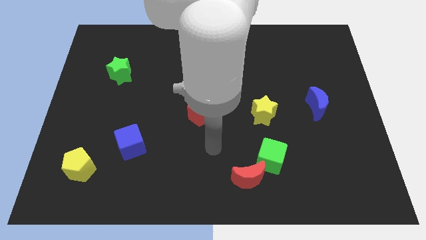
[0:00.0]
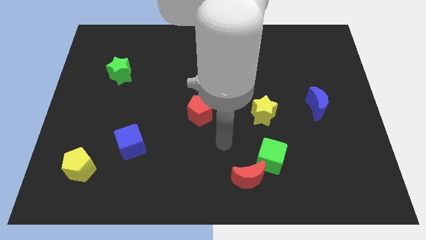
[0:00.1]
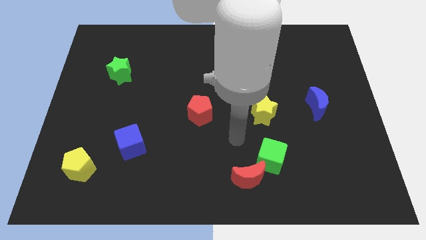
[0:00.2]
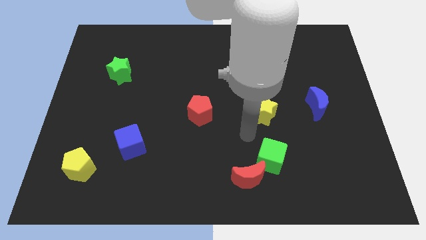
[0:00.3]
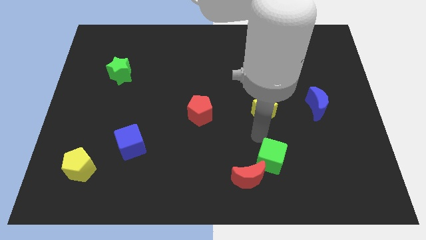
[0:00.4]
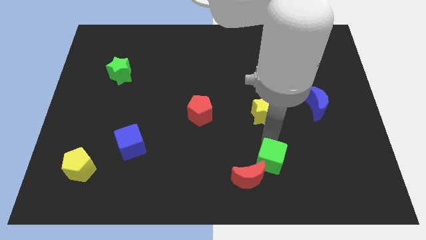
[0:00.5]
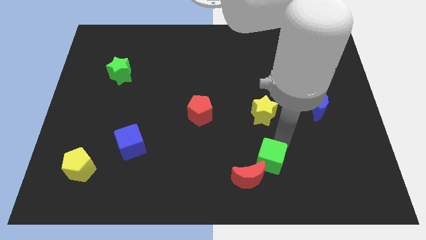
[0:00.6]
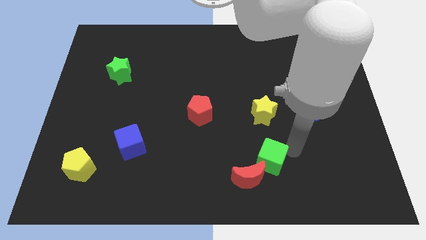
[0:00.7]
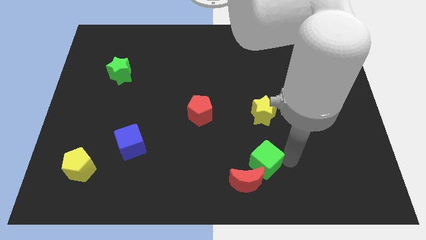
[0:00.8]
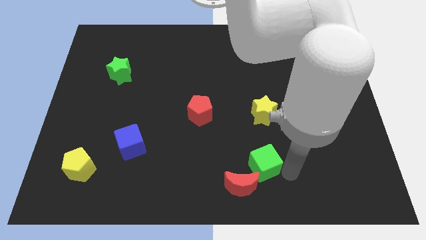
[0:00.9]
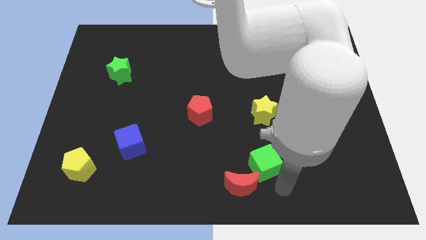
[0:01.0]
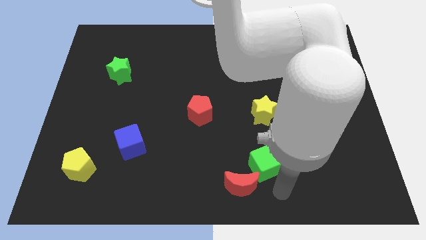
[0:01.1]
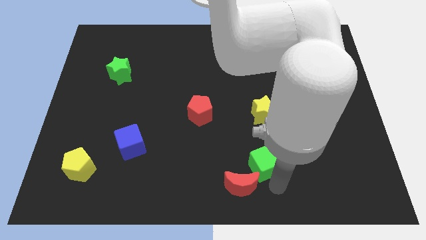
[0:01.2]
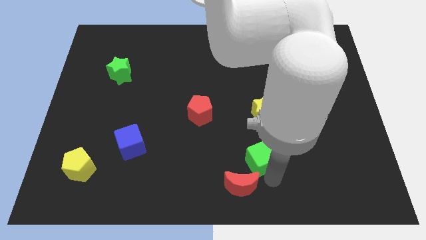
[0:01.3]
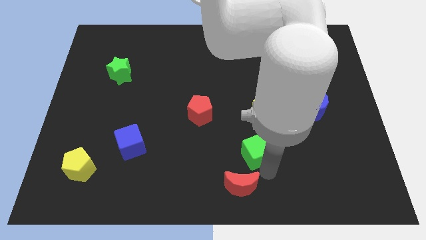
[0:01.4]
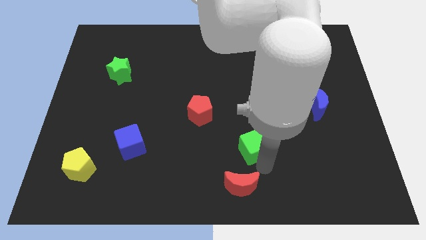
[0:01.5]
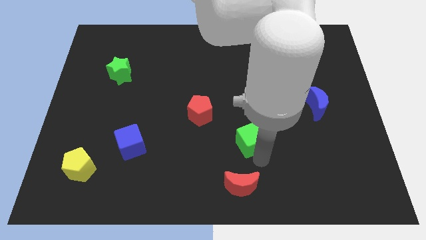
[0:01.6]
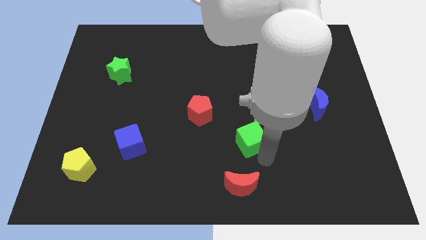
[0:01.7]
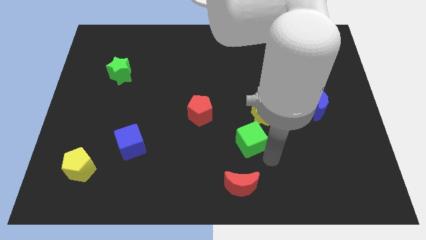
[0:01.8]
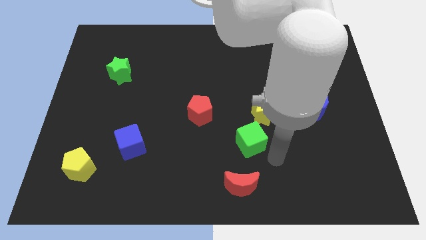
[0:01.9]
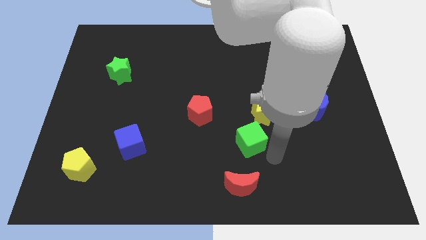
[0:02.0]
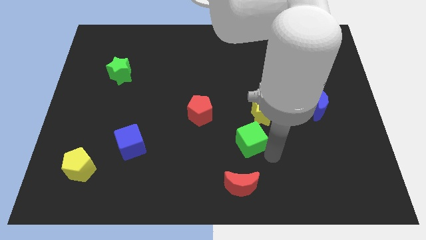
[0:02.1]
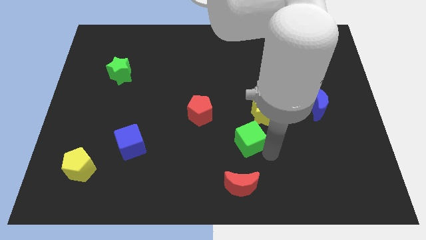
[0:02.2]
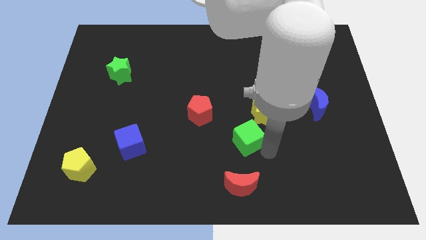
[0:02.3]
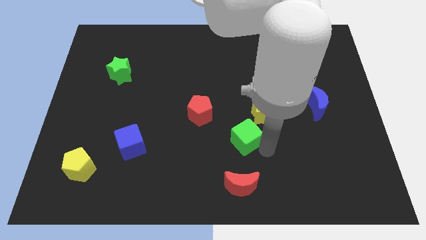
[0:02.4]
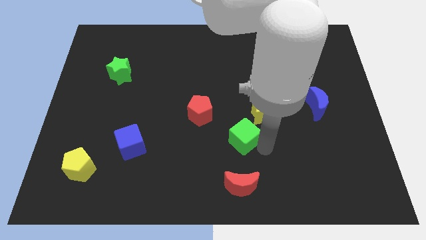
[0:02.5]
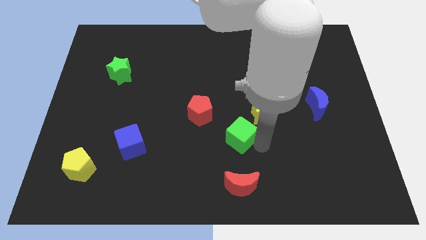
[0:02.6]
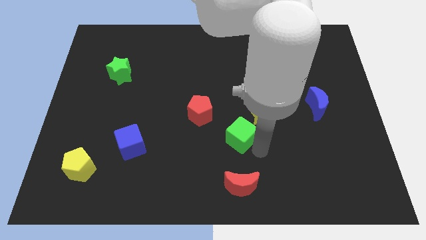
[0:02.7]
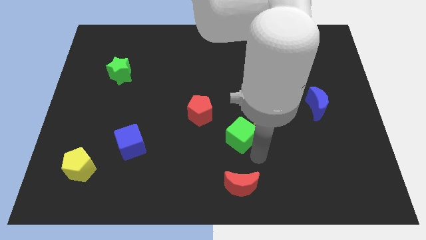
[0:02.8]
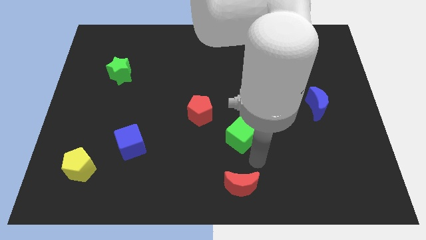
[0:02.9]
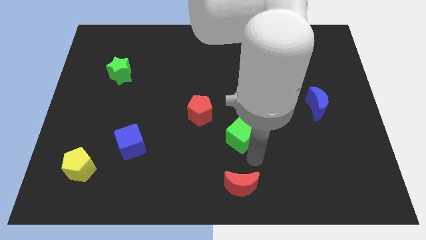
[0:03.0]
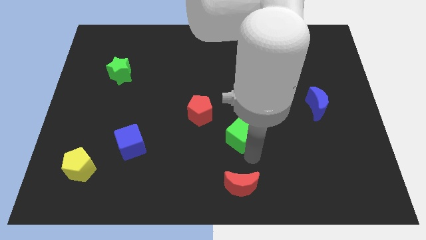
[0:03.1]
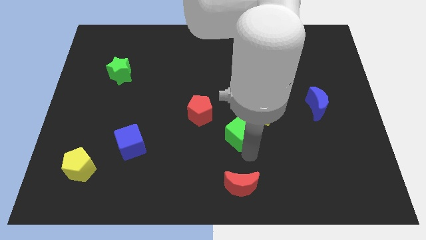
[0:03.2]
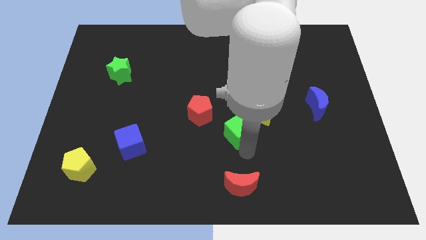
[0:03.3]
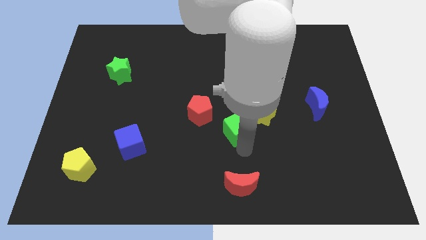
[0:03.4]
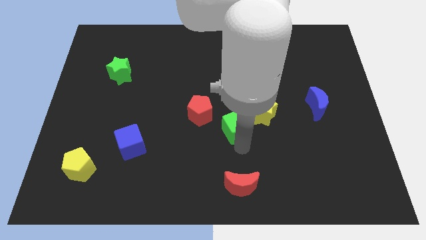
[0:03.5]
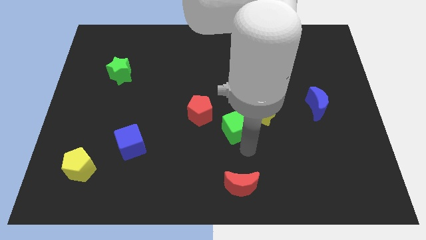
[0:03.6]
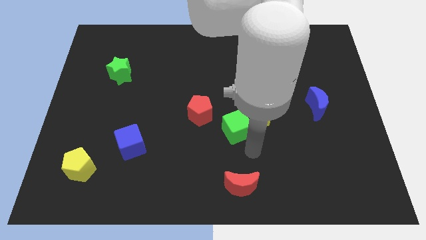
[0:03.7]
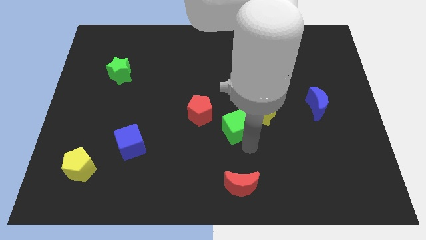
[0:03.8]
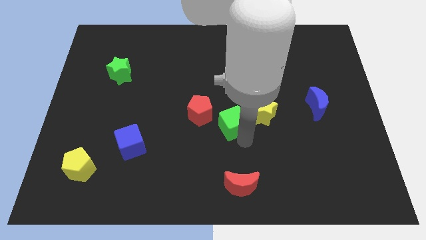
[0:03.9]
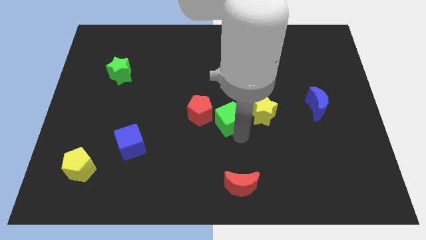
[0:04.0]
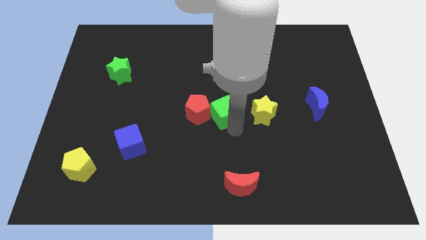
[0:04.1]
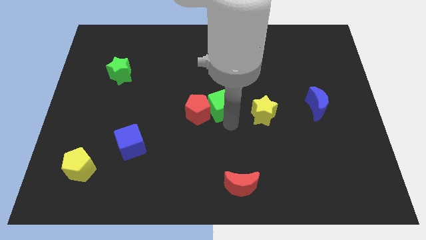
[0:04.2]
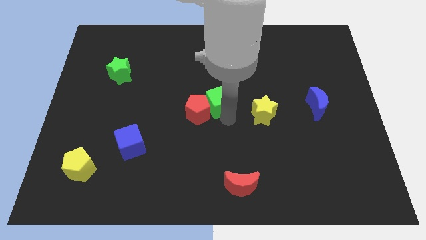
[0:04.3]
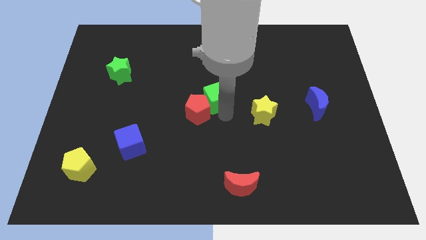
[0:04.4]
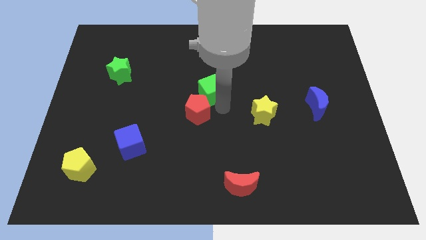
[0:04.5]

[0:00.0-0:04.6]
push the green cube diagonally upwards and left

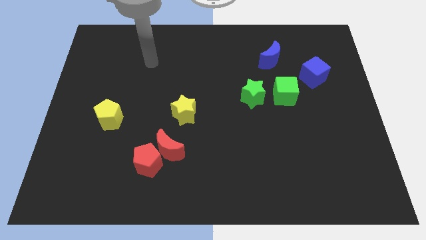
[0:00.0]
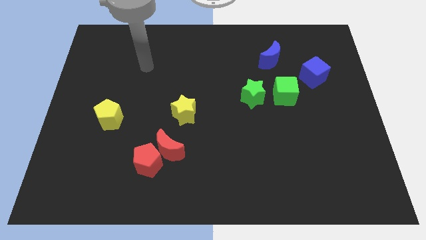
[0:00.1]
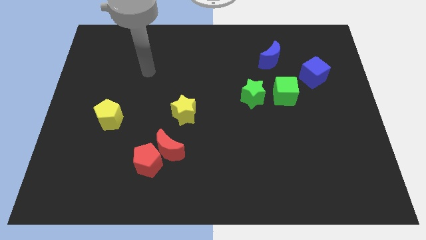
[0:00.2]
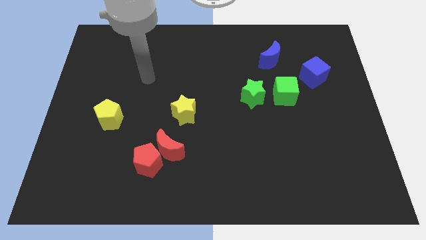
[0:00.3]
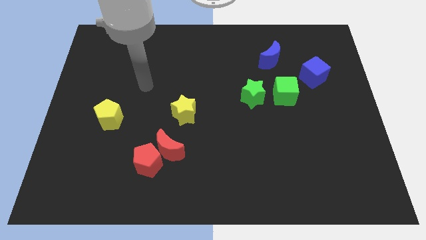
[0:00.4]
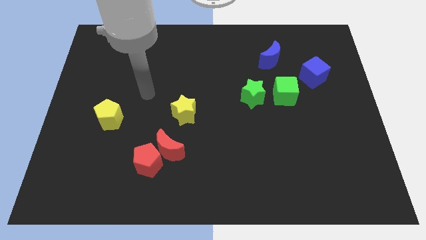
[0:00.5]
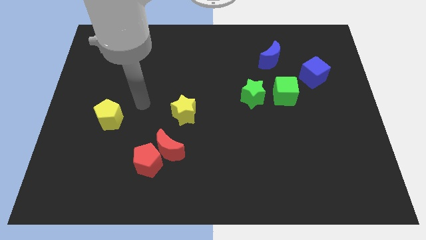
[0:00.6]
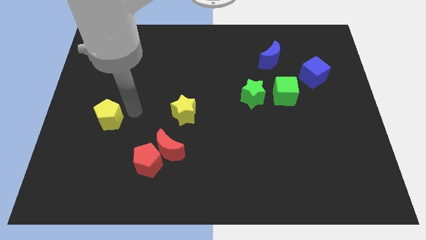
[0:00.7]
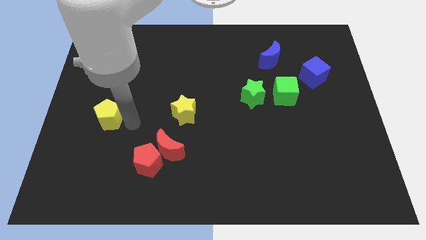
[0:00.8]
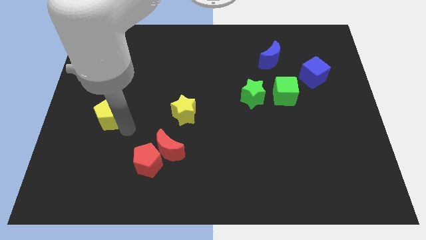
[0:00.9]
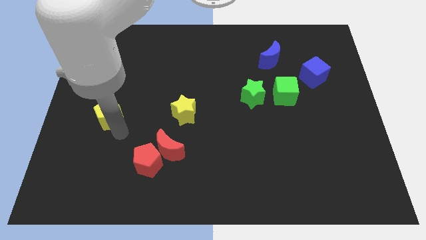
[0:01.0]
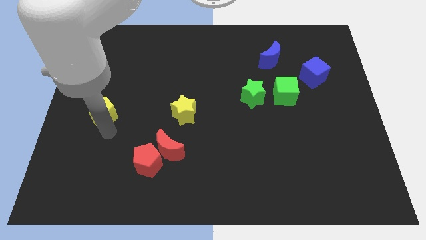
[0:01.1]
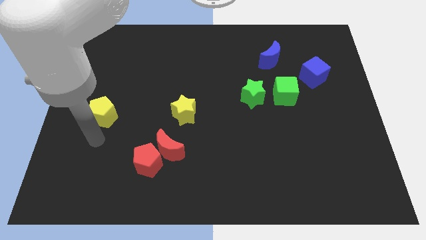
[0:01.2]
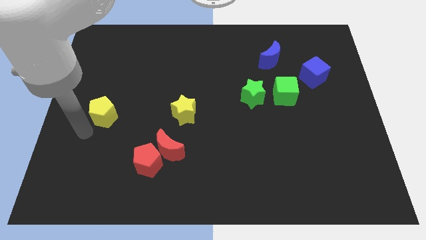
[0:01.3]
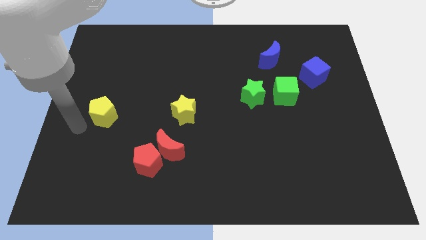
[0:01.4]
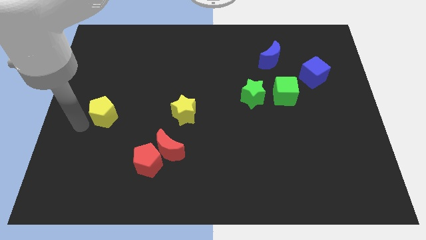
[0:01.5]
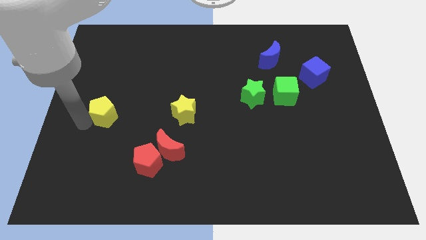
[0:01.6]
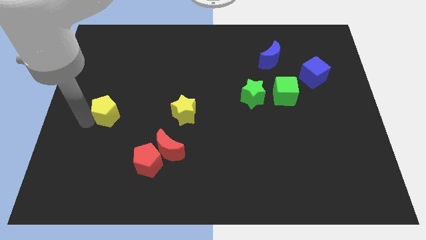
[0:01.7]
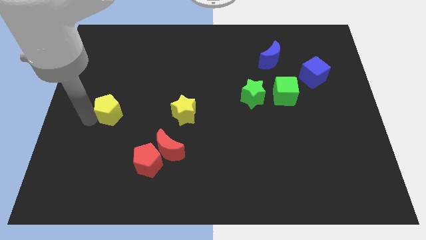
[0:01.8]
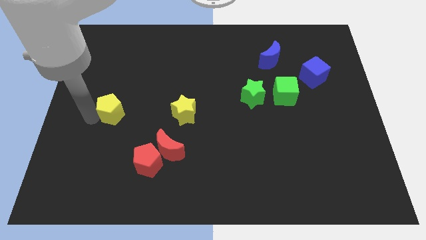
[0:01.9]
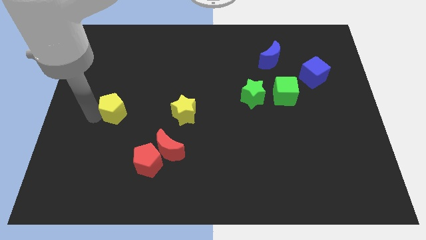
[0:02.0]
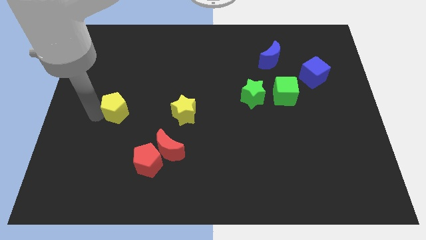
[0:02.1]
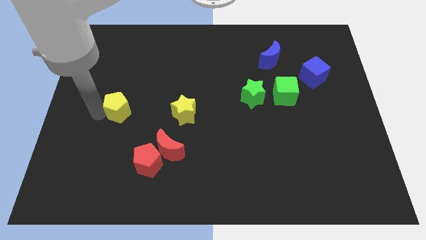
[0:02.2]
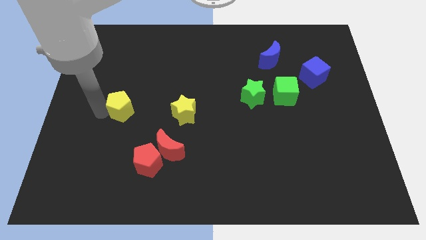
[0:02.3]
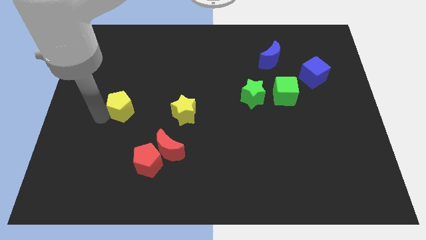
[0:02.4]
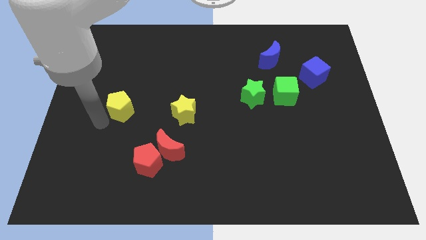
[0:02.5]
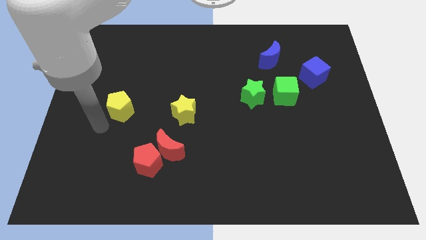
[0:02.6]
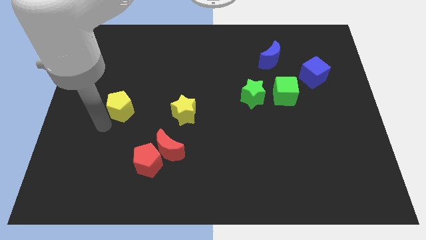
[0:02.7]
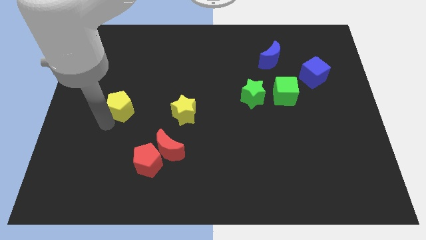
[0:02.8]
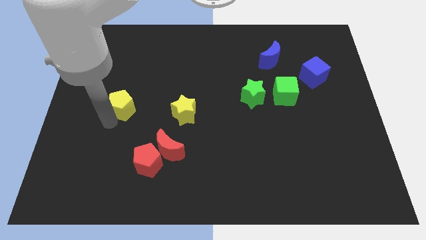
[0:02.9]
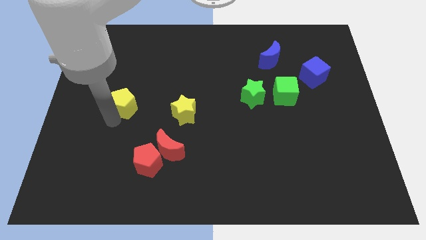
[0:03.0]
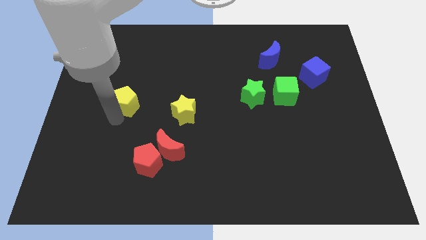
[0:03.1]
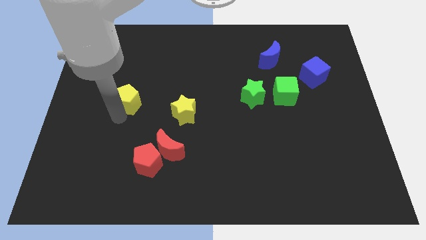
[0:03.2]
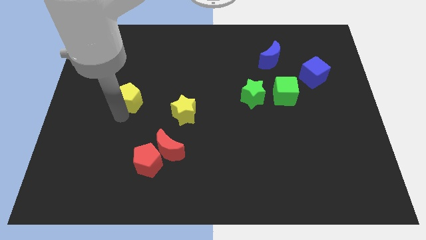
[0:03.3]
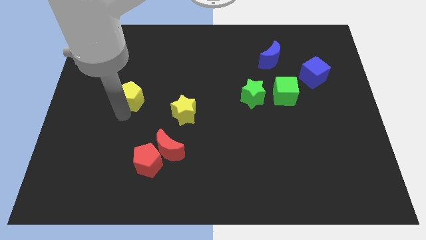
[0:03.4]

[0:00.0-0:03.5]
slightly slide the yellow pentagon up and to the right diagonally

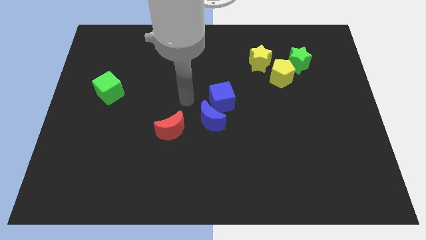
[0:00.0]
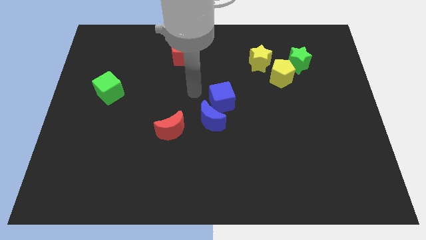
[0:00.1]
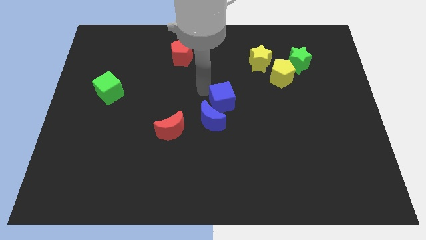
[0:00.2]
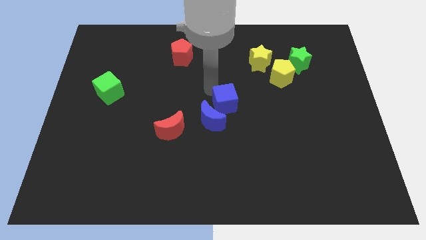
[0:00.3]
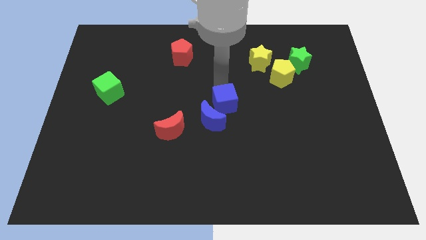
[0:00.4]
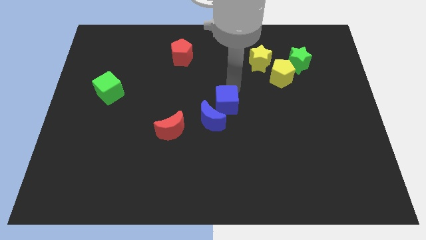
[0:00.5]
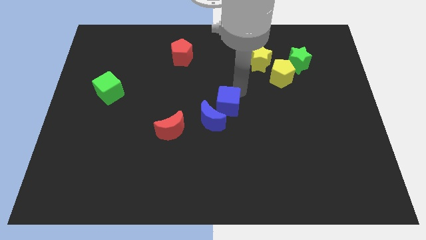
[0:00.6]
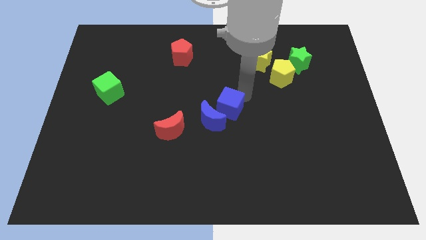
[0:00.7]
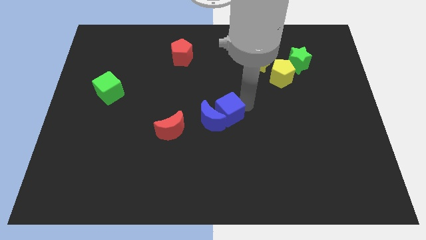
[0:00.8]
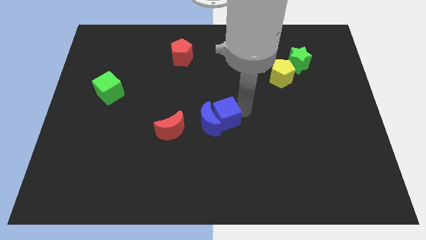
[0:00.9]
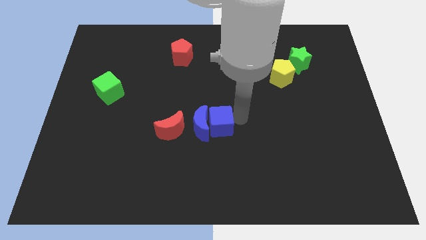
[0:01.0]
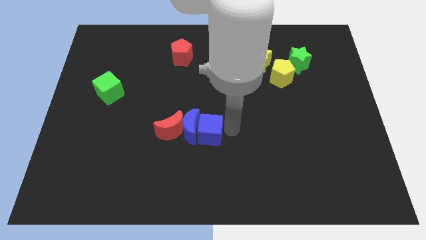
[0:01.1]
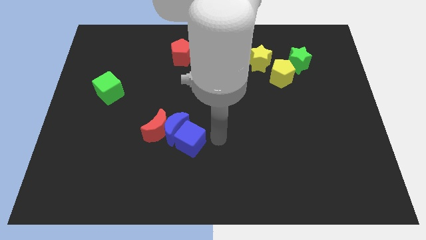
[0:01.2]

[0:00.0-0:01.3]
slide the blue moon slightly left
